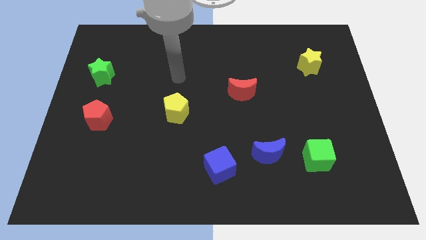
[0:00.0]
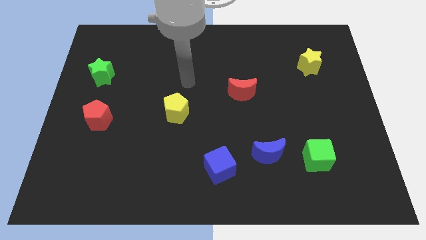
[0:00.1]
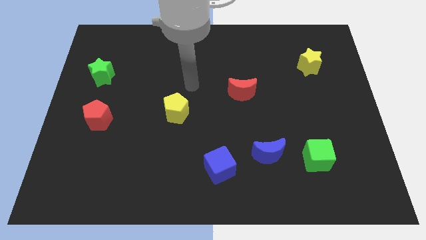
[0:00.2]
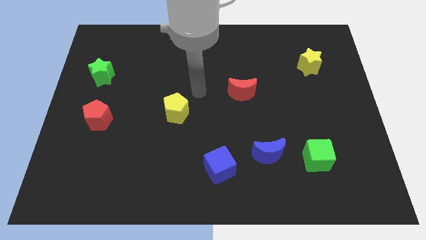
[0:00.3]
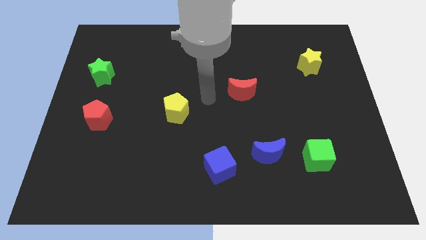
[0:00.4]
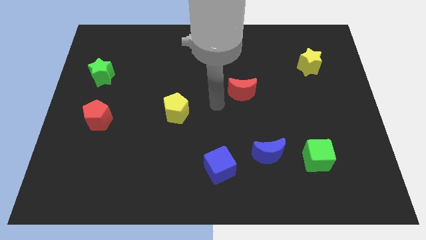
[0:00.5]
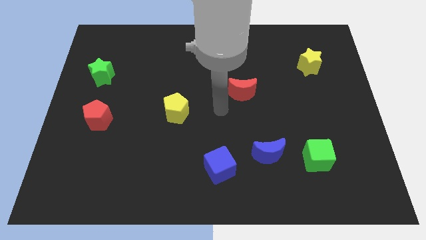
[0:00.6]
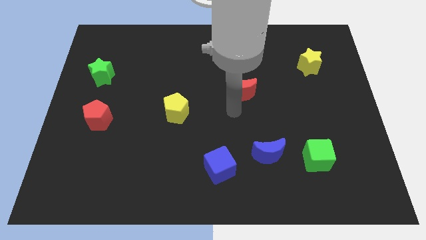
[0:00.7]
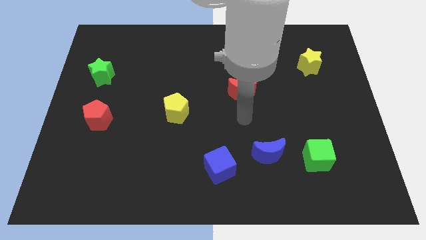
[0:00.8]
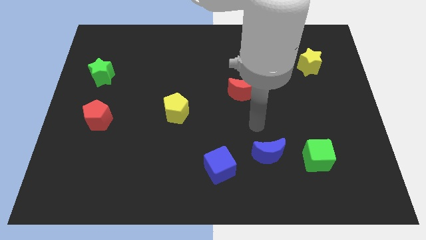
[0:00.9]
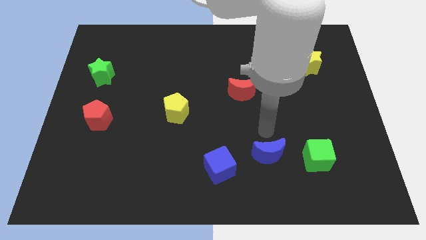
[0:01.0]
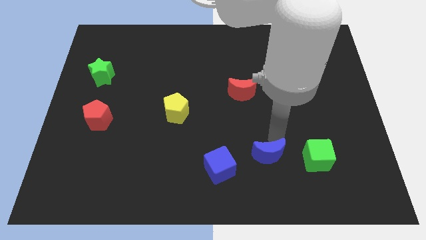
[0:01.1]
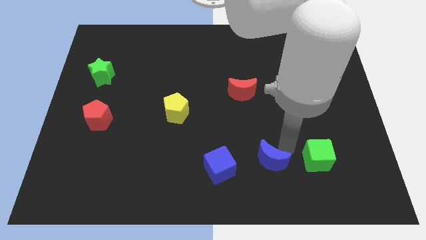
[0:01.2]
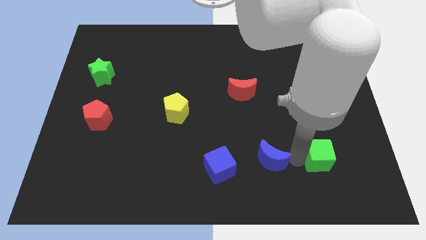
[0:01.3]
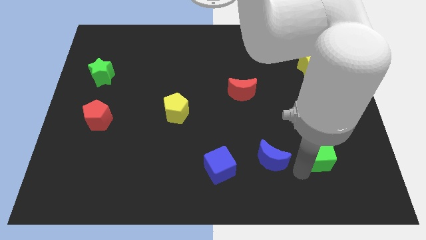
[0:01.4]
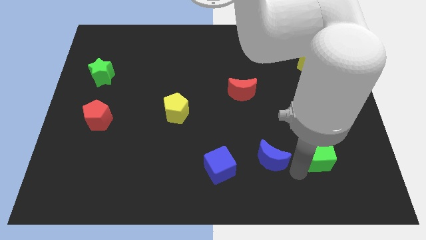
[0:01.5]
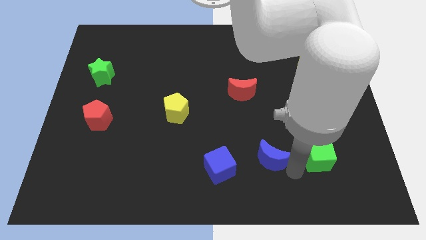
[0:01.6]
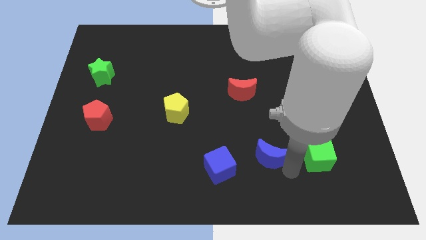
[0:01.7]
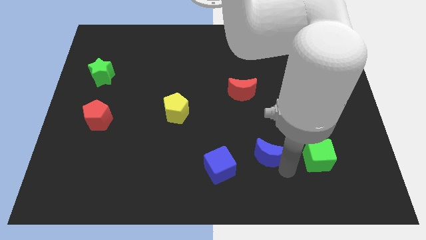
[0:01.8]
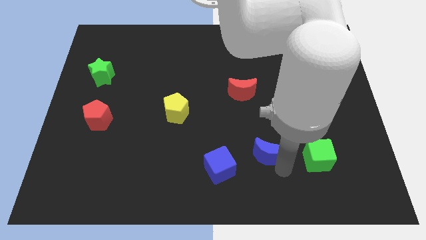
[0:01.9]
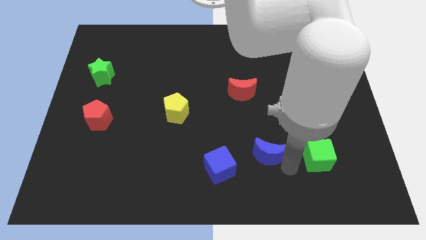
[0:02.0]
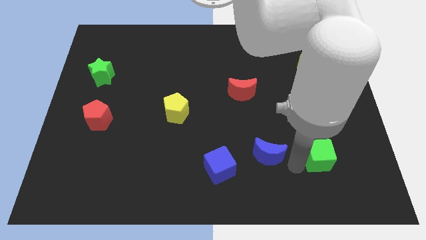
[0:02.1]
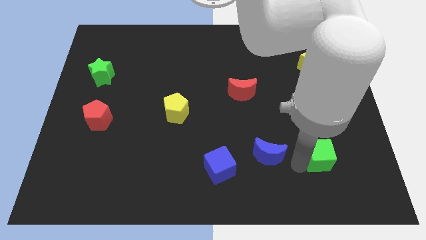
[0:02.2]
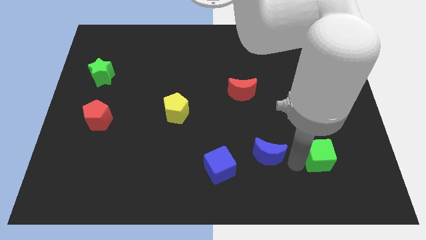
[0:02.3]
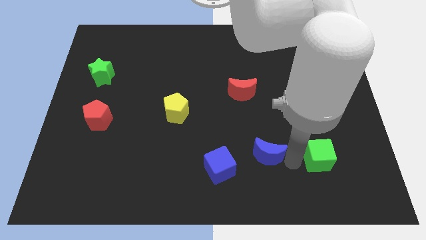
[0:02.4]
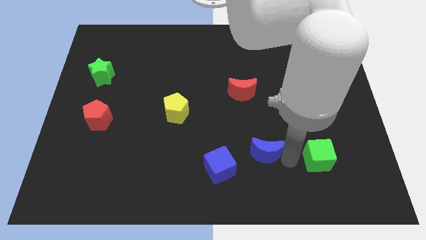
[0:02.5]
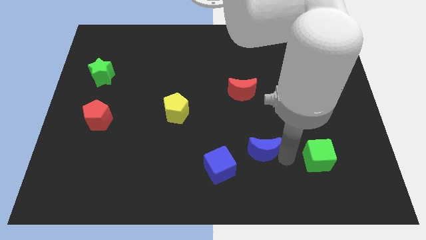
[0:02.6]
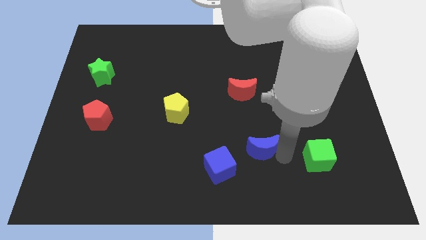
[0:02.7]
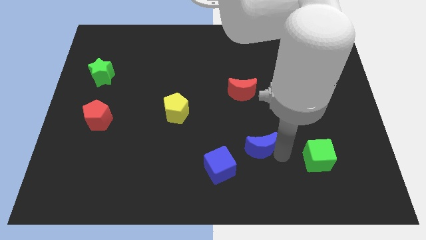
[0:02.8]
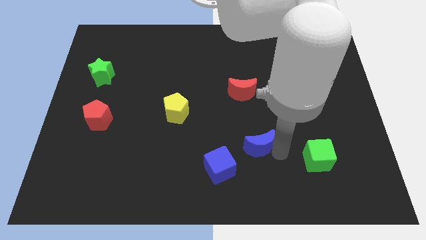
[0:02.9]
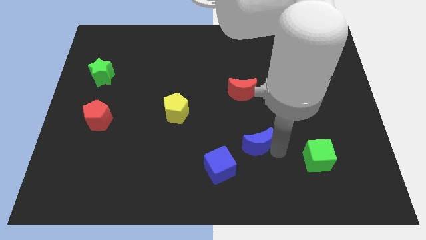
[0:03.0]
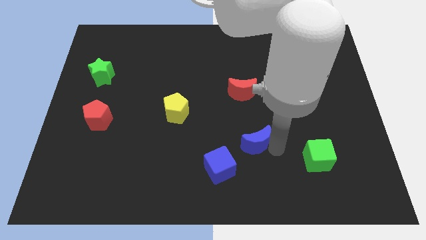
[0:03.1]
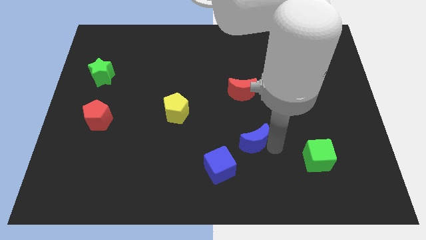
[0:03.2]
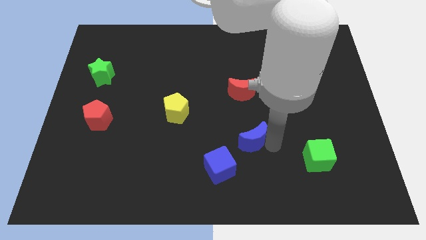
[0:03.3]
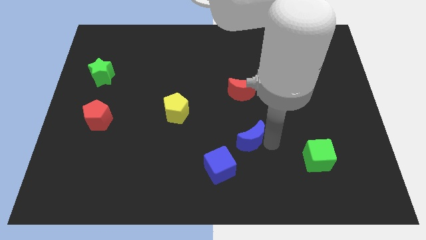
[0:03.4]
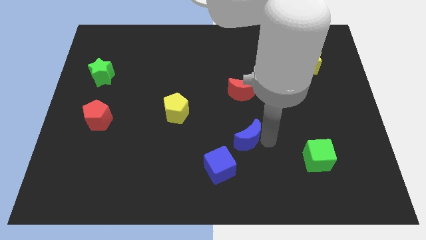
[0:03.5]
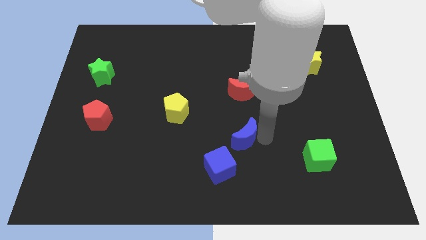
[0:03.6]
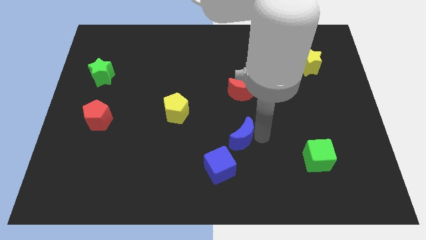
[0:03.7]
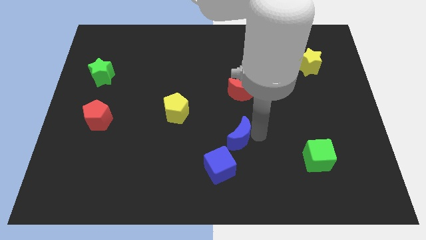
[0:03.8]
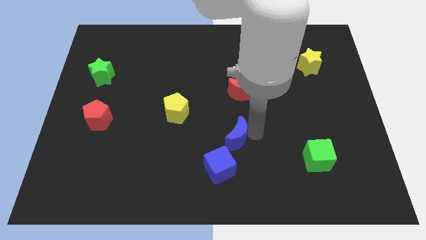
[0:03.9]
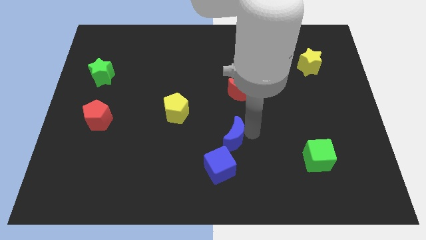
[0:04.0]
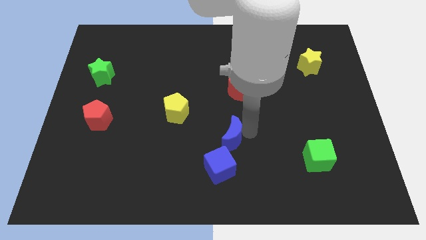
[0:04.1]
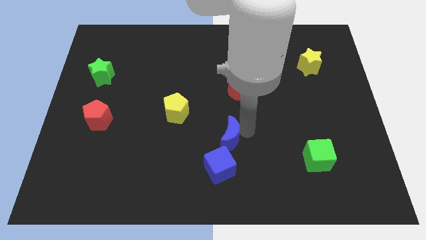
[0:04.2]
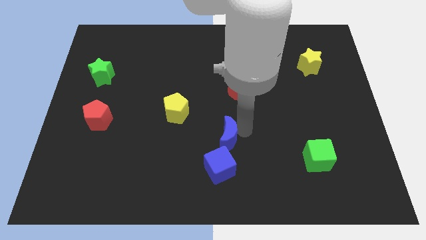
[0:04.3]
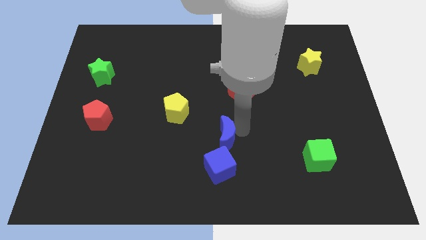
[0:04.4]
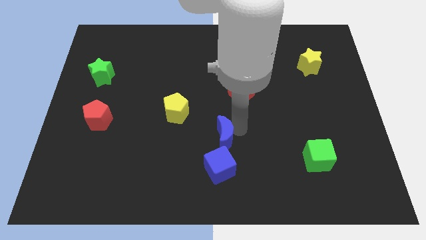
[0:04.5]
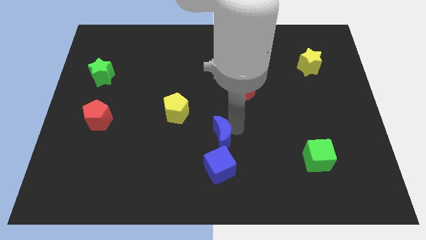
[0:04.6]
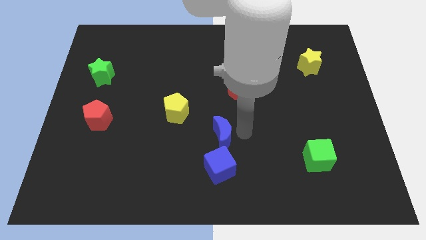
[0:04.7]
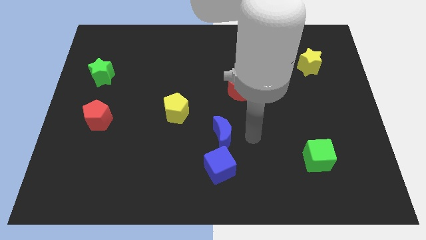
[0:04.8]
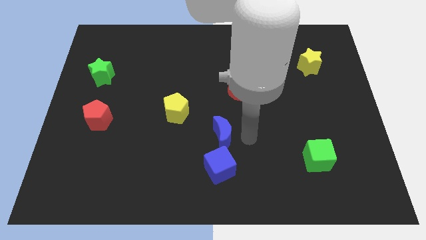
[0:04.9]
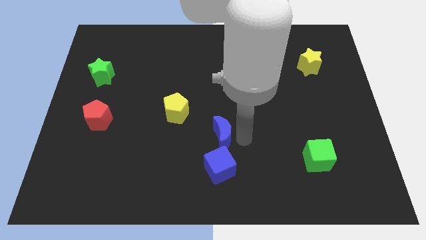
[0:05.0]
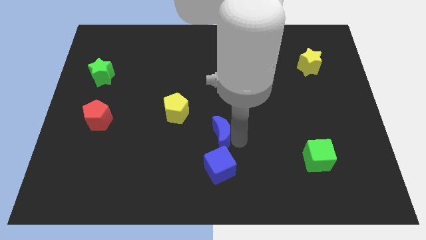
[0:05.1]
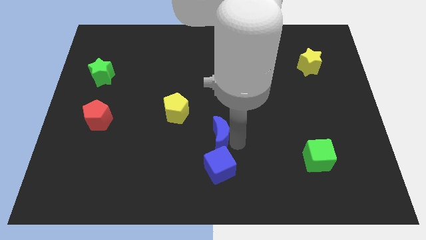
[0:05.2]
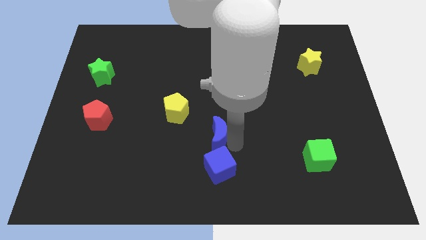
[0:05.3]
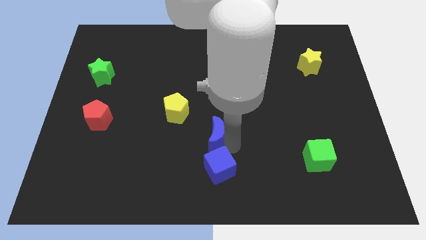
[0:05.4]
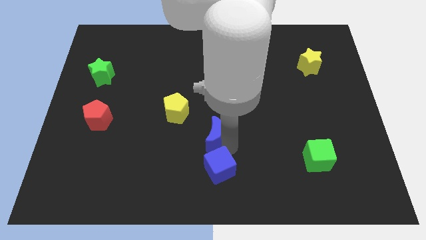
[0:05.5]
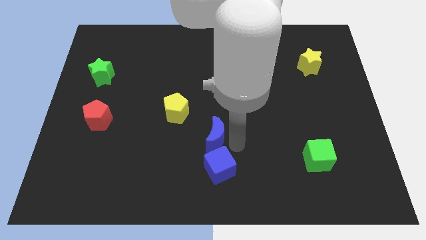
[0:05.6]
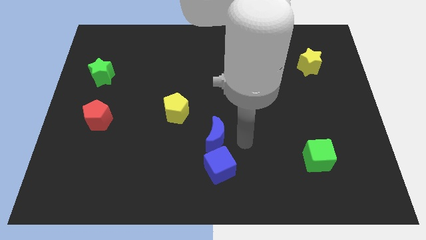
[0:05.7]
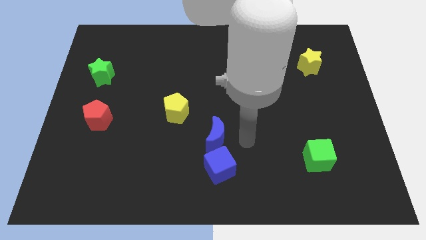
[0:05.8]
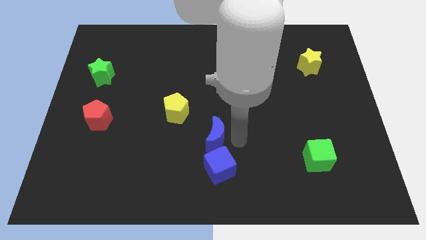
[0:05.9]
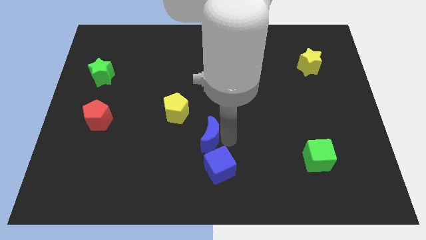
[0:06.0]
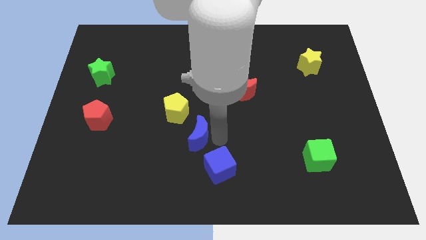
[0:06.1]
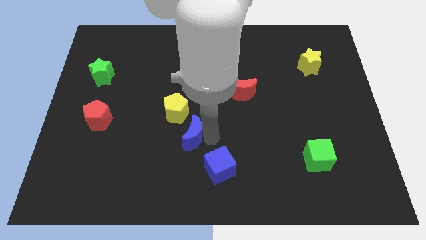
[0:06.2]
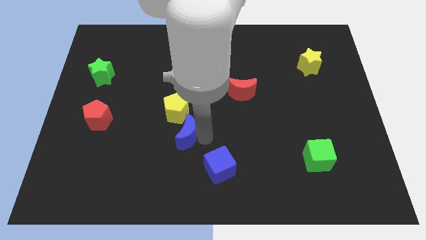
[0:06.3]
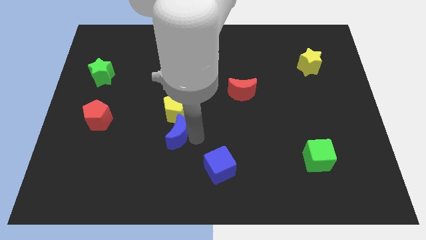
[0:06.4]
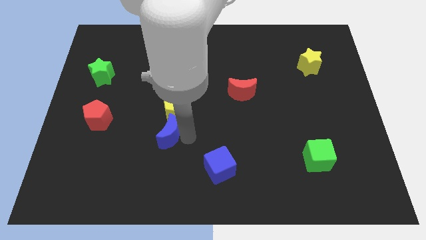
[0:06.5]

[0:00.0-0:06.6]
push the blue moon to the bottom left side of the yellow pentagon

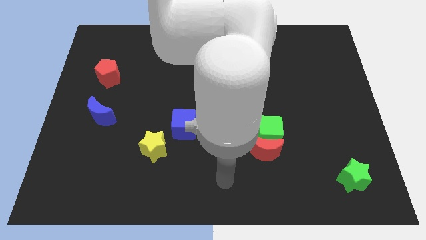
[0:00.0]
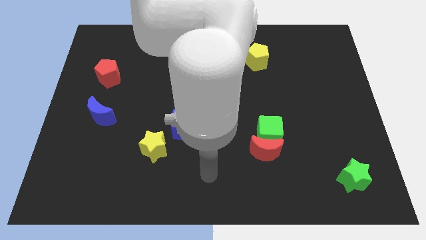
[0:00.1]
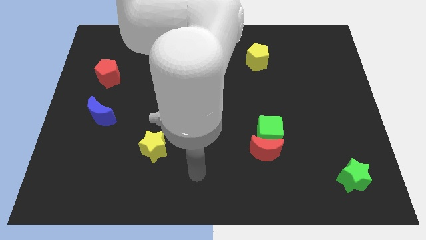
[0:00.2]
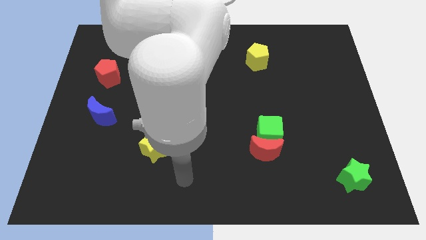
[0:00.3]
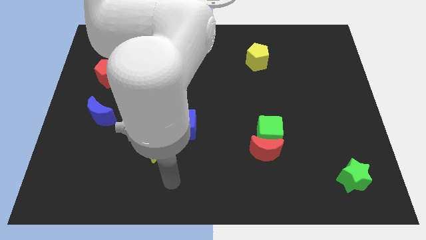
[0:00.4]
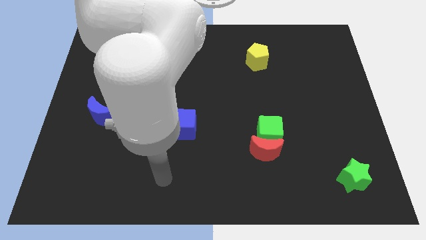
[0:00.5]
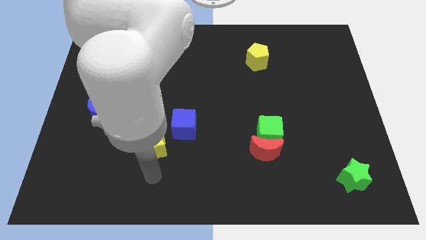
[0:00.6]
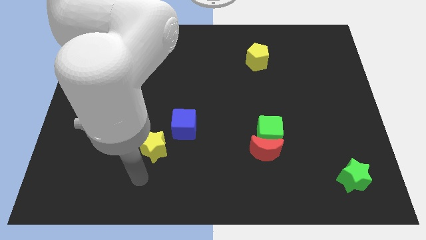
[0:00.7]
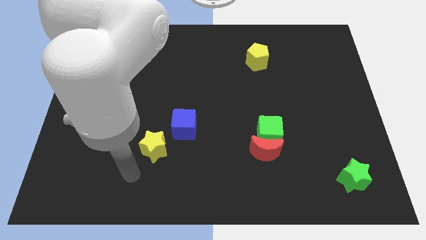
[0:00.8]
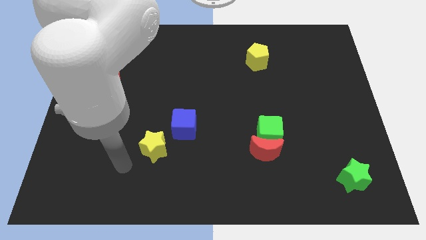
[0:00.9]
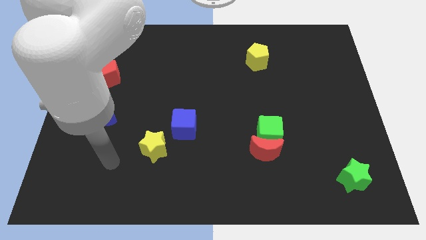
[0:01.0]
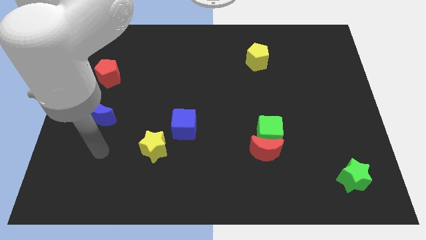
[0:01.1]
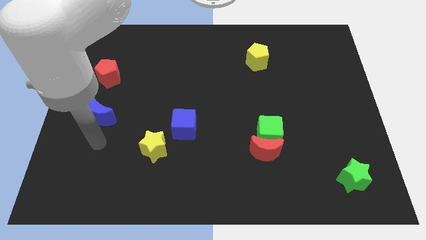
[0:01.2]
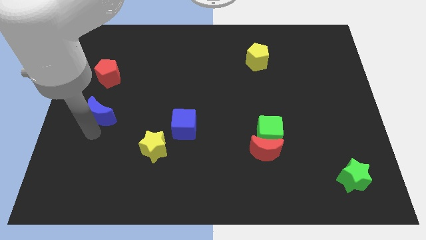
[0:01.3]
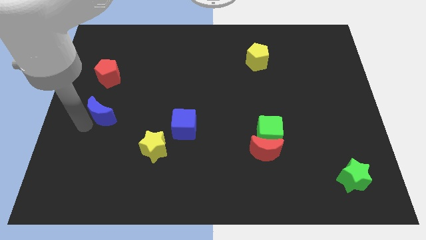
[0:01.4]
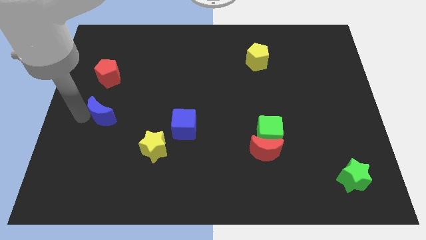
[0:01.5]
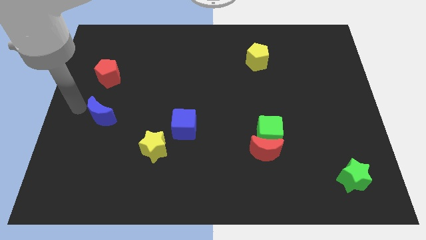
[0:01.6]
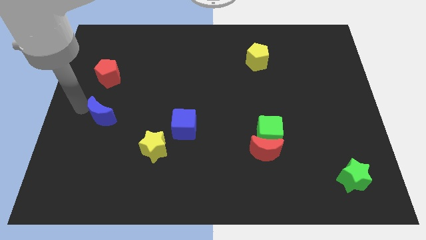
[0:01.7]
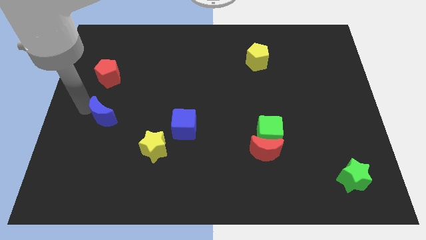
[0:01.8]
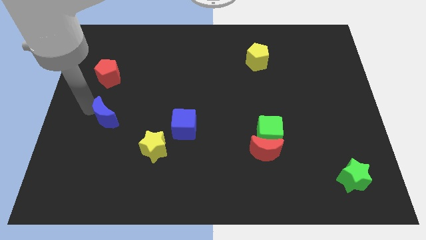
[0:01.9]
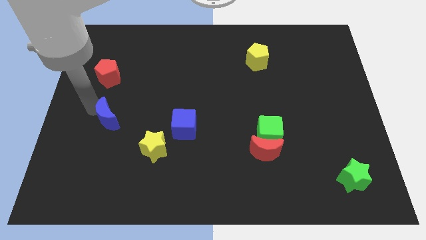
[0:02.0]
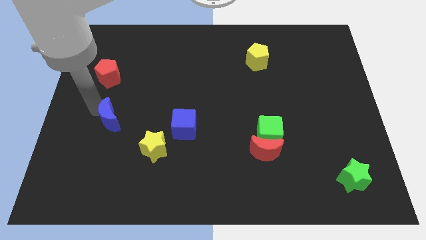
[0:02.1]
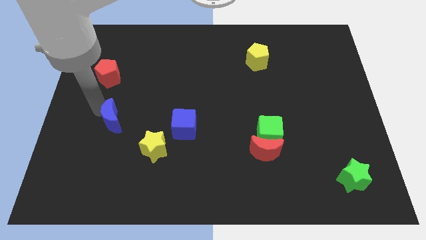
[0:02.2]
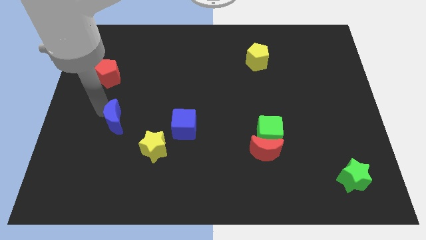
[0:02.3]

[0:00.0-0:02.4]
slide the blue moon to the top left of the yellow star
